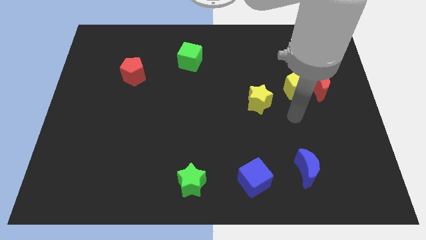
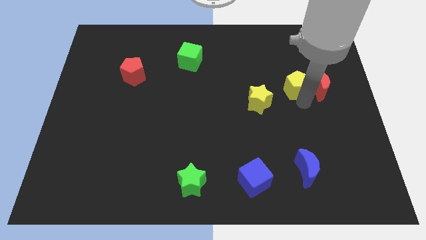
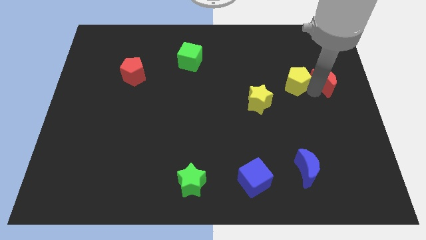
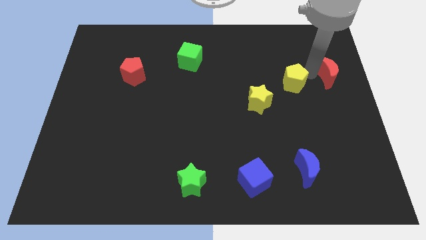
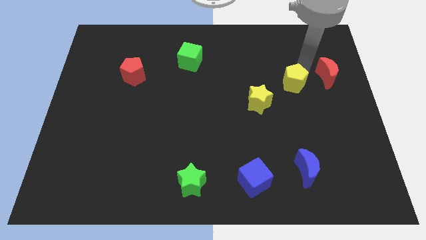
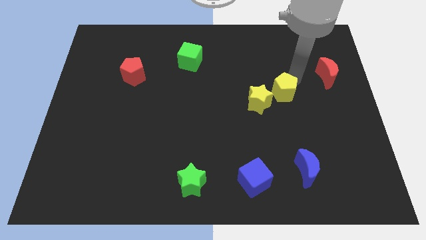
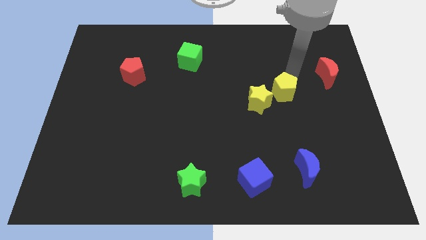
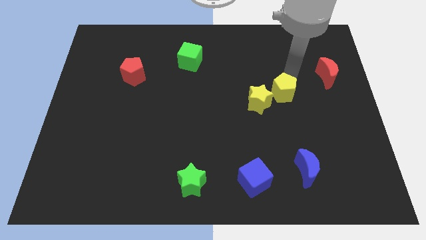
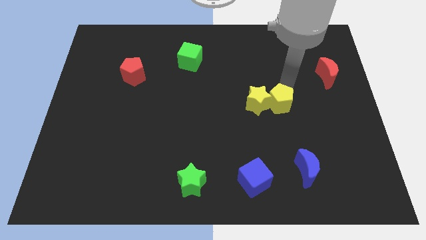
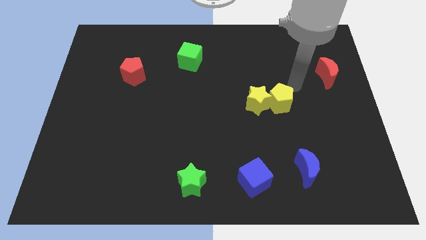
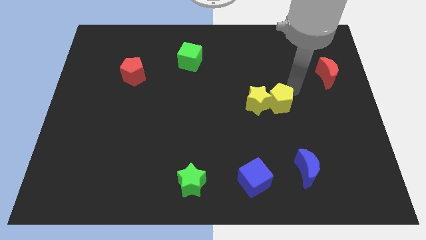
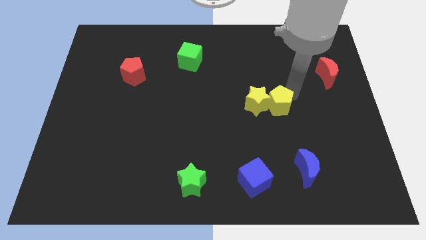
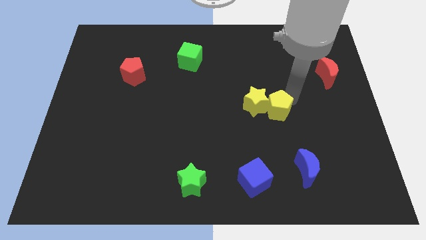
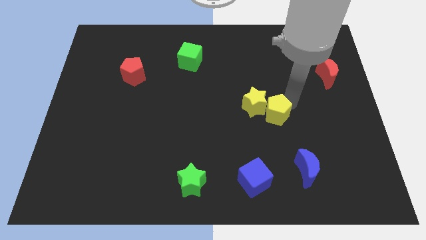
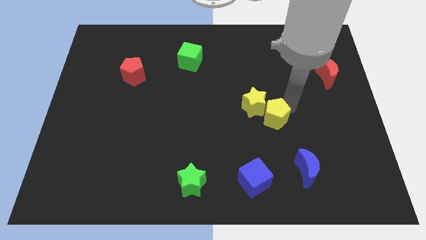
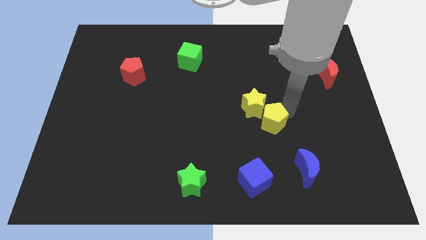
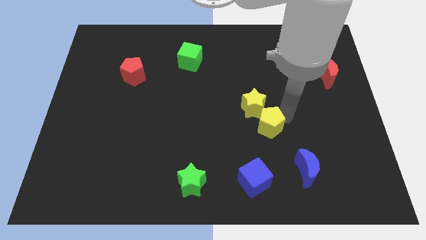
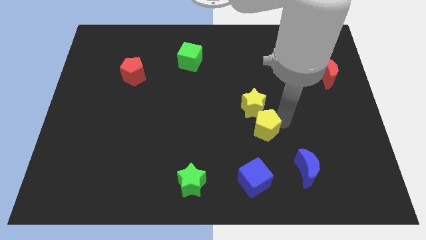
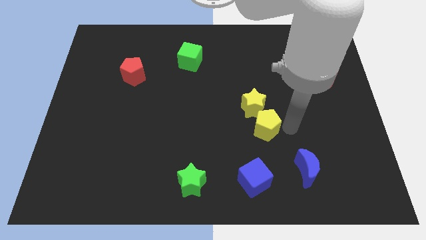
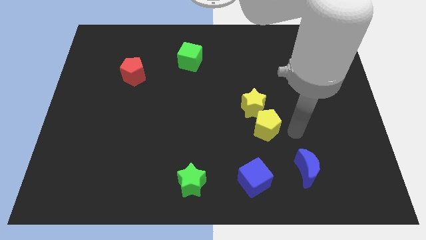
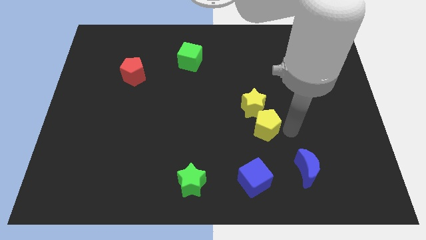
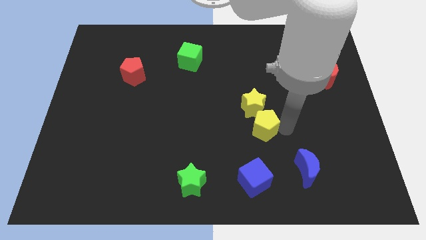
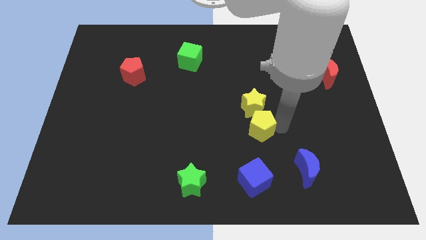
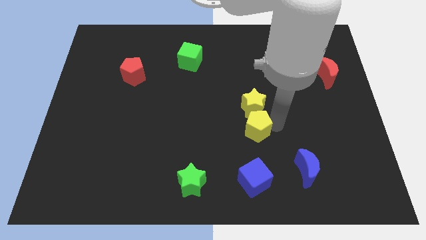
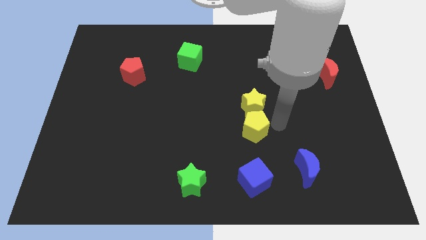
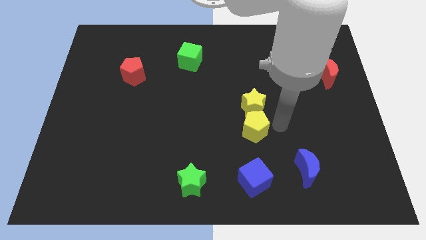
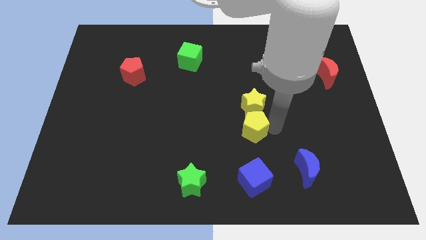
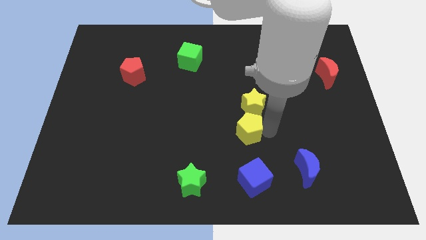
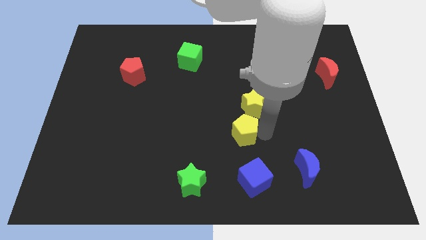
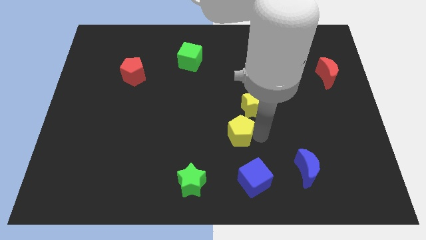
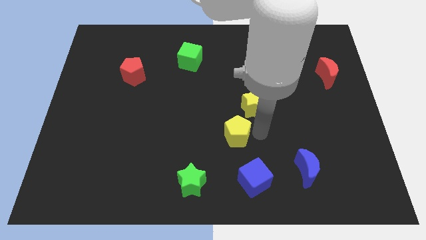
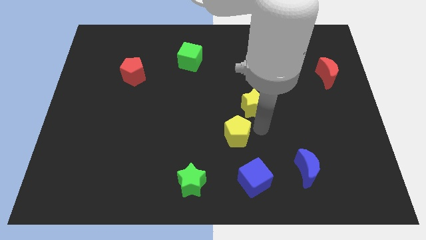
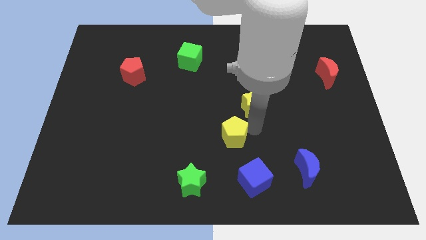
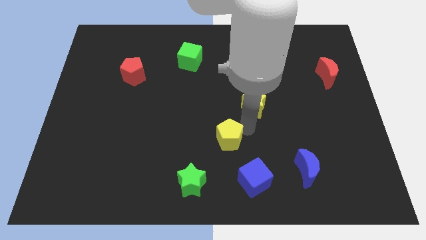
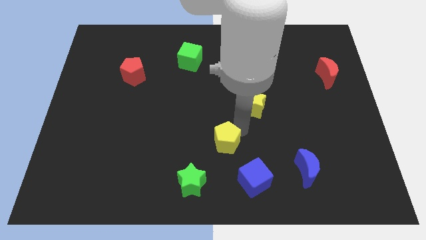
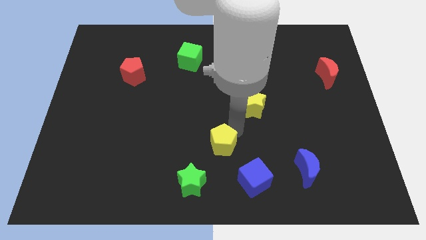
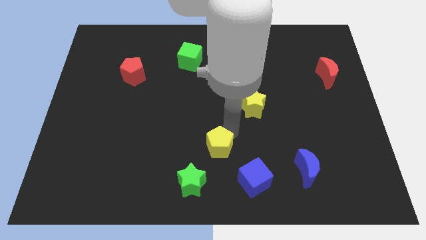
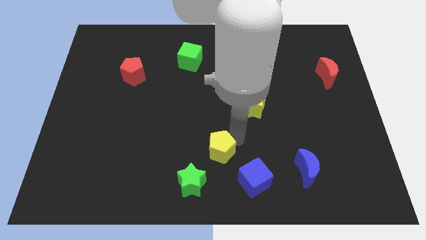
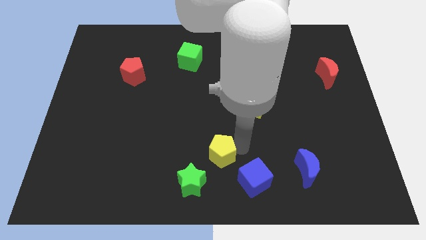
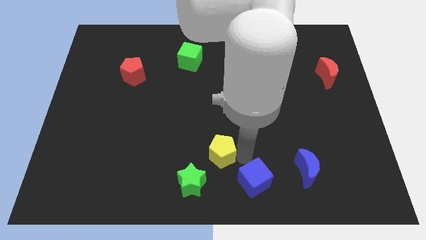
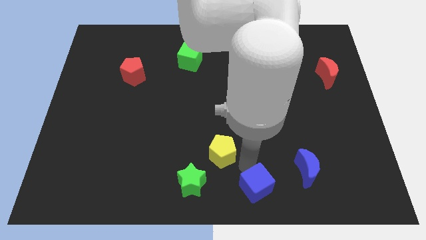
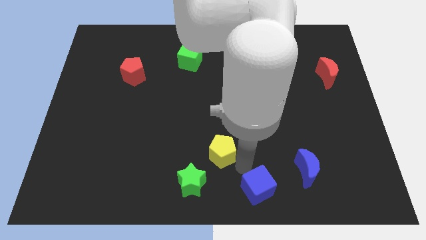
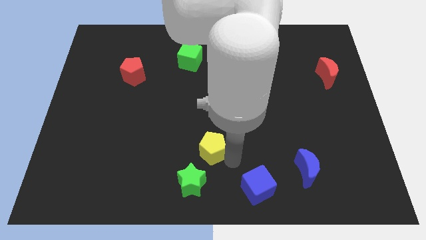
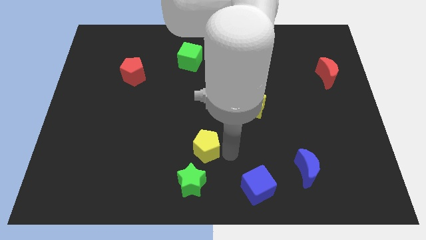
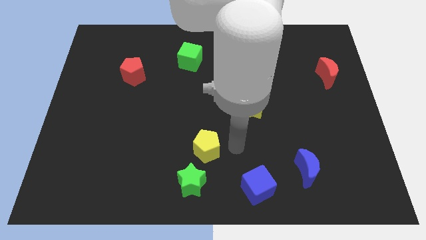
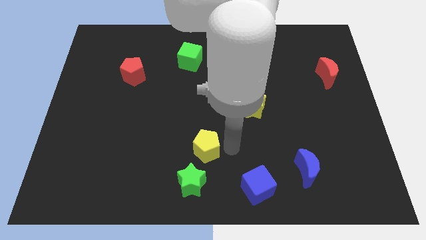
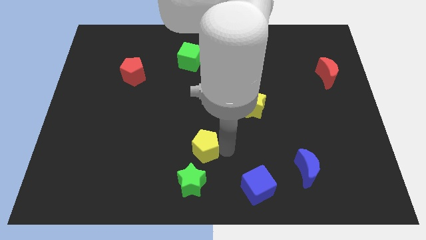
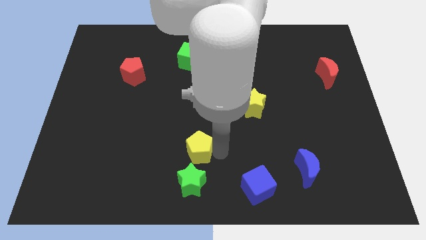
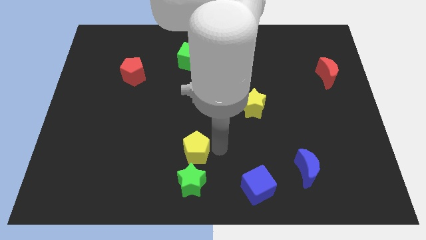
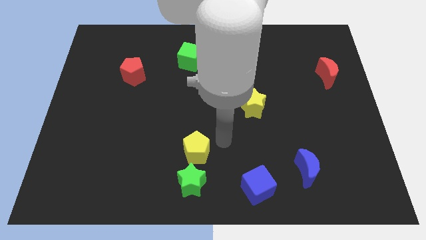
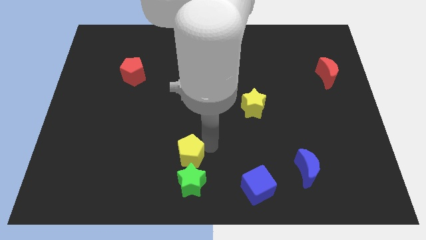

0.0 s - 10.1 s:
push the yellow pentagon diagonally up and to the left of the green star

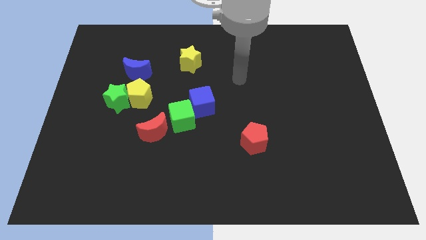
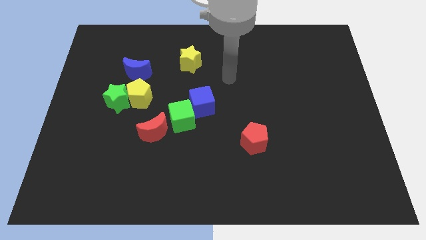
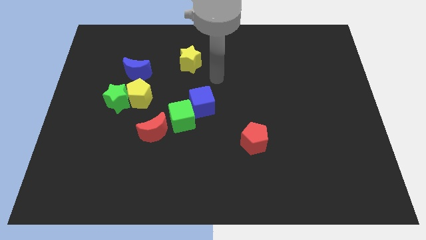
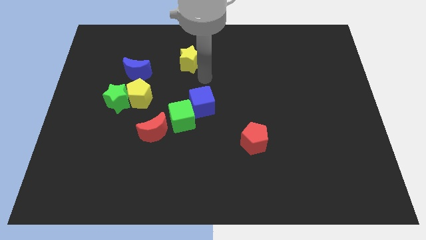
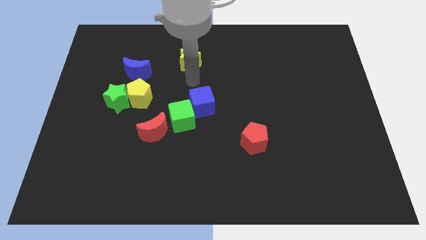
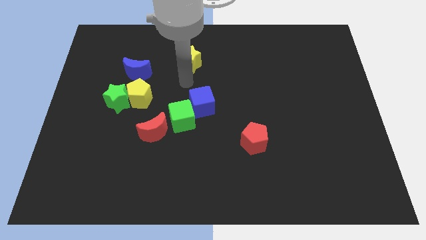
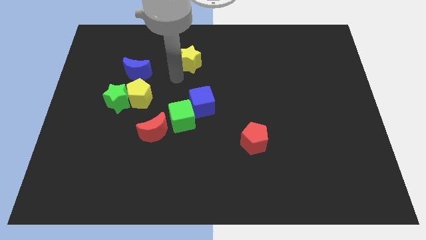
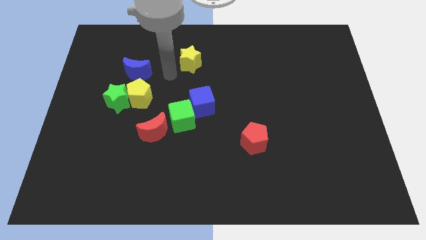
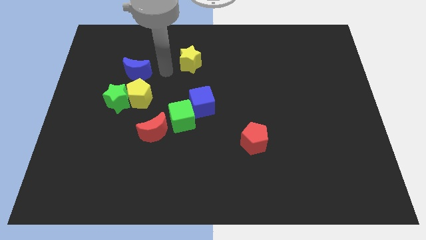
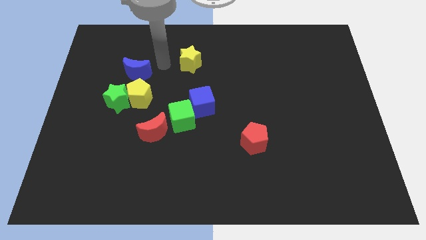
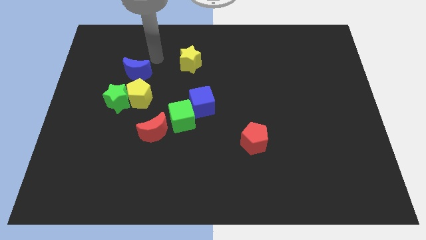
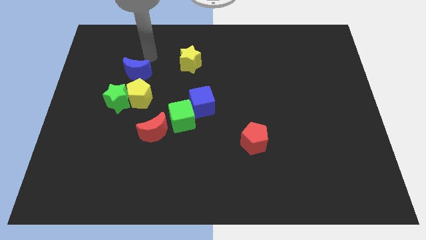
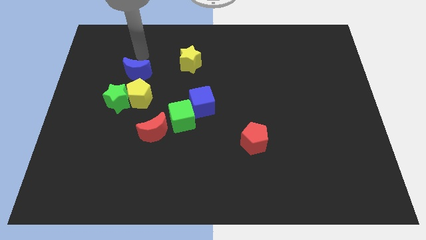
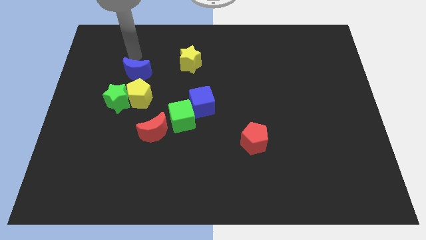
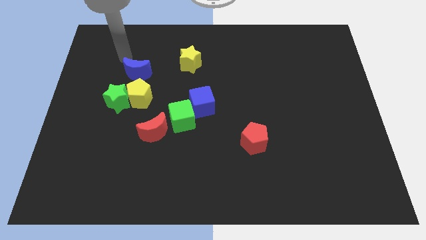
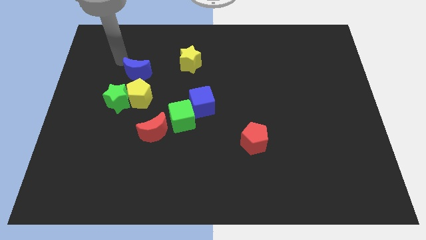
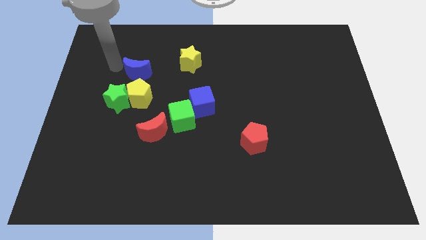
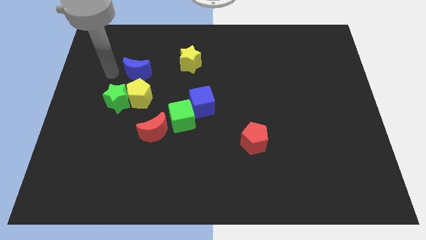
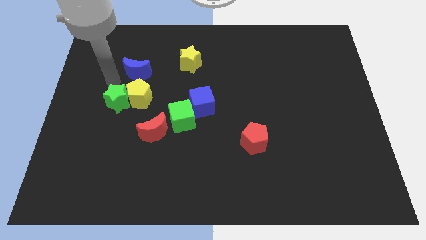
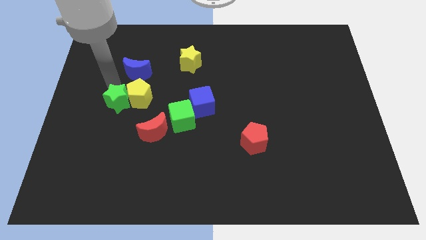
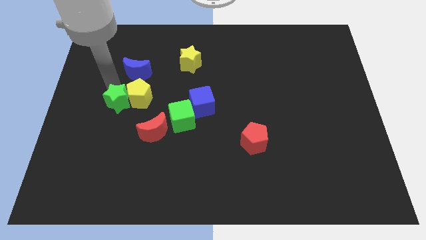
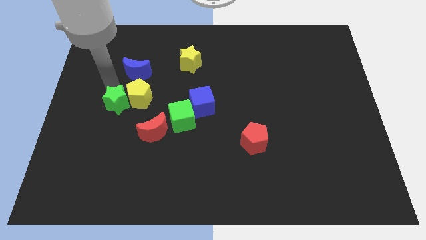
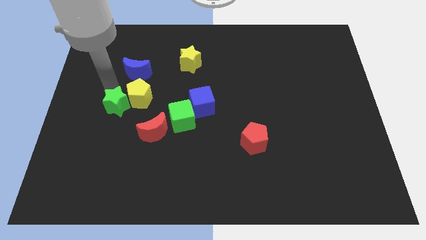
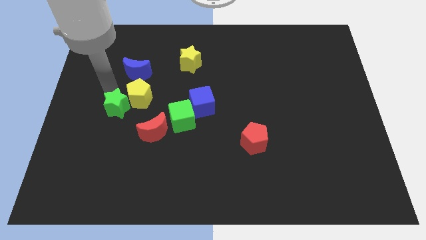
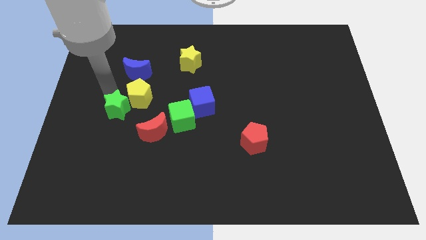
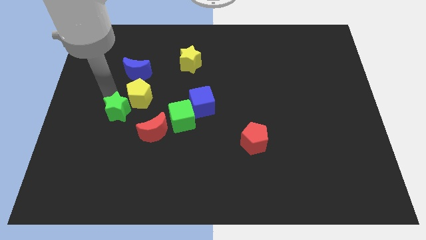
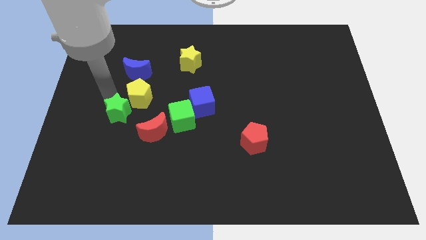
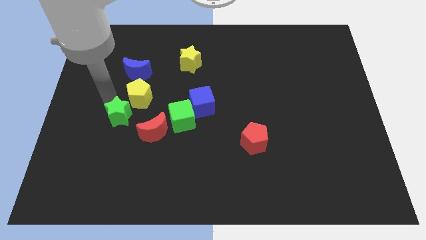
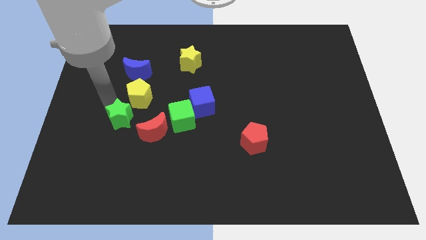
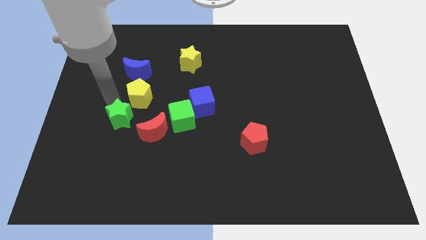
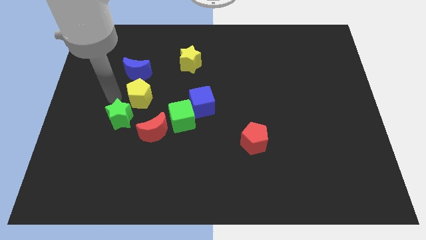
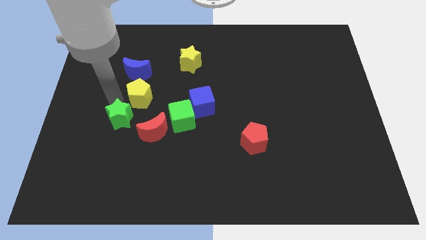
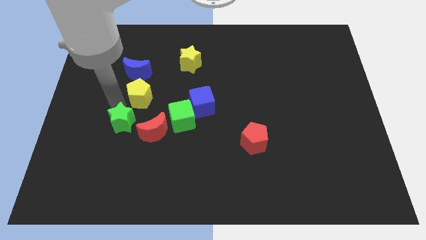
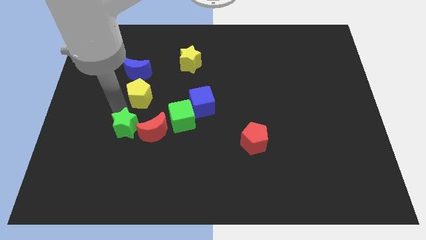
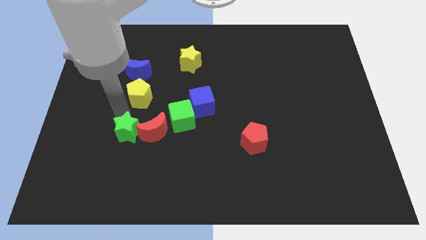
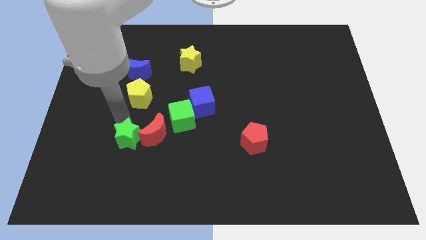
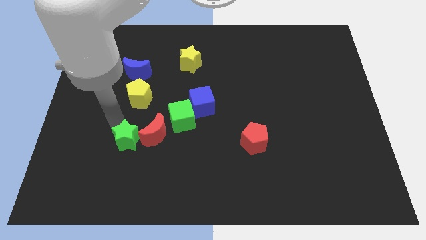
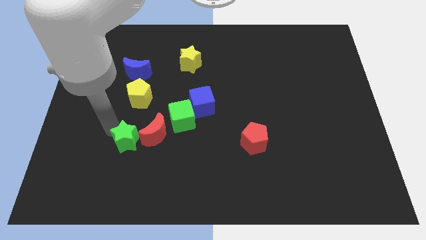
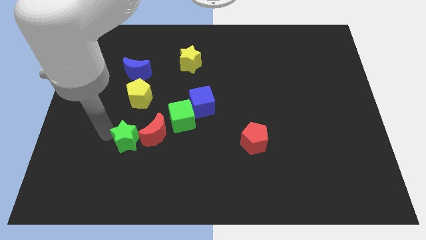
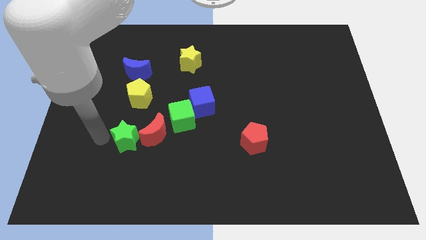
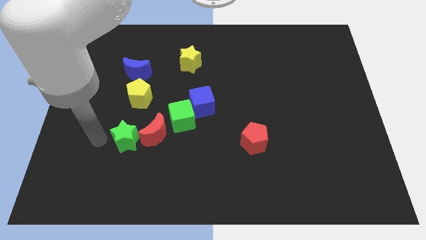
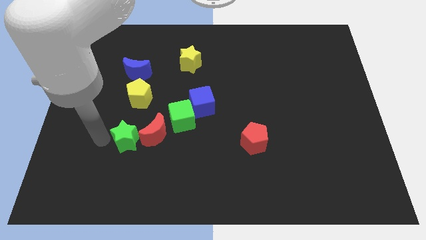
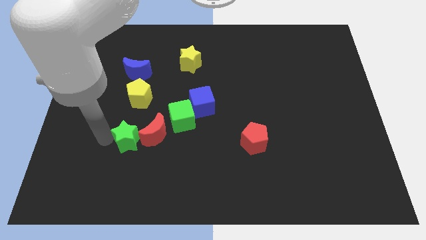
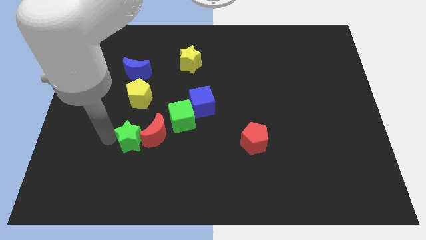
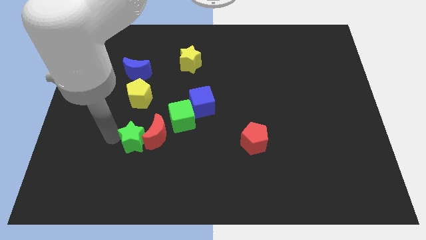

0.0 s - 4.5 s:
slide the green star to the bottom left side of the green cube
